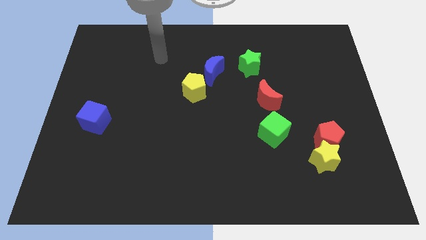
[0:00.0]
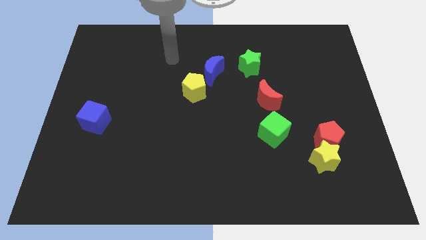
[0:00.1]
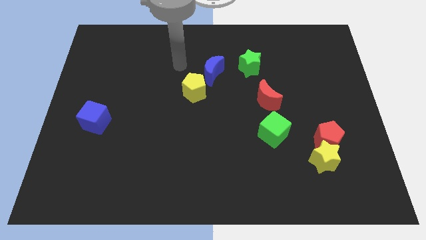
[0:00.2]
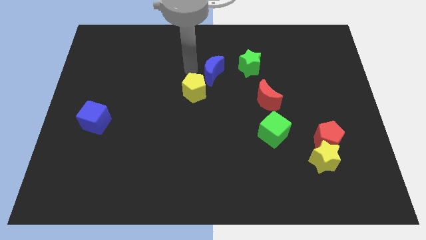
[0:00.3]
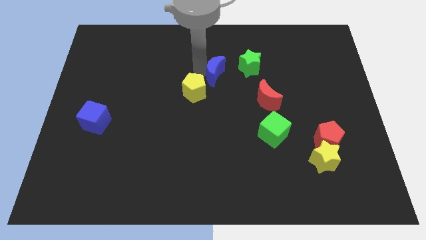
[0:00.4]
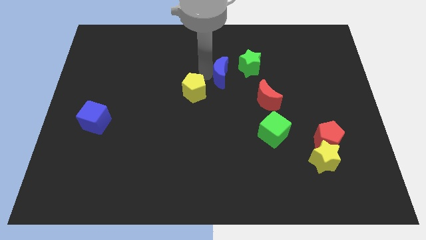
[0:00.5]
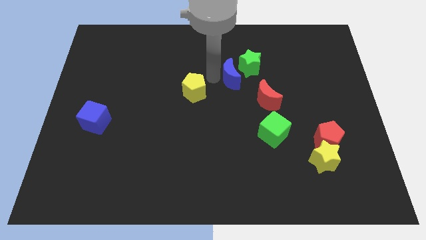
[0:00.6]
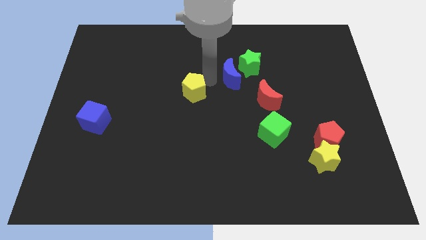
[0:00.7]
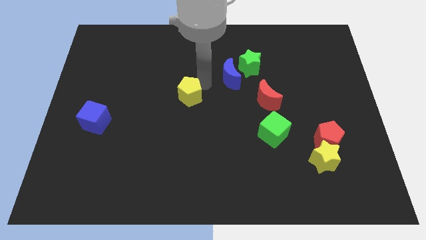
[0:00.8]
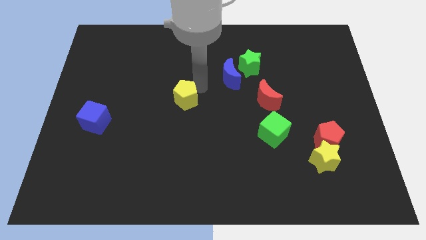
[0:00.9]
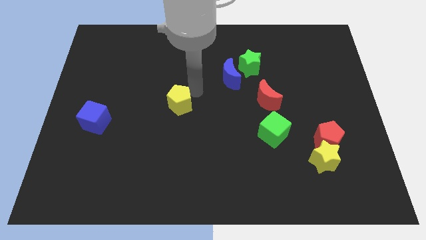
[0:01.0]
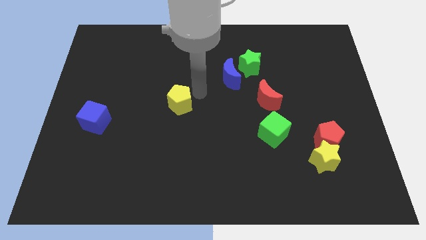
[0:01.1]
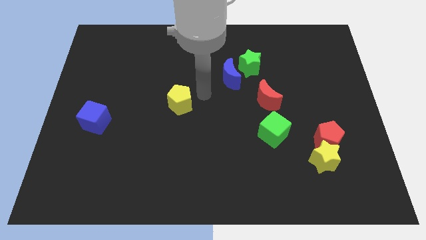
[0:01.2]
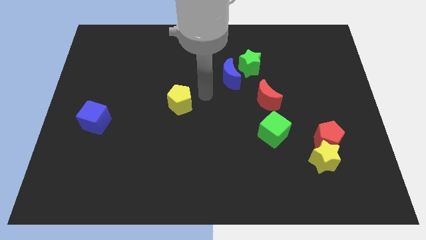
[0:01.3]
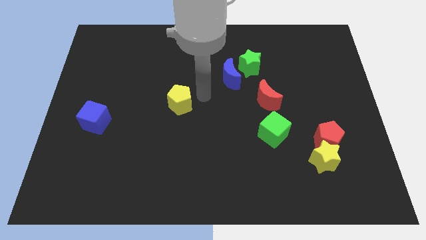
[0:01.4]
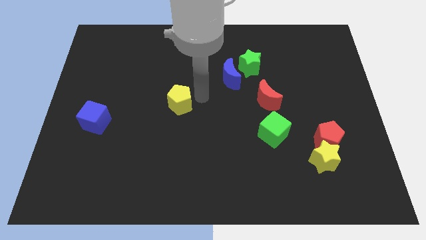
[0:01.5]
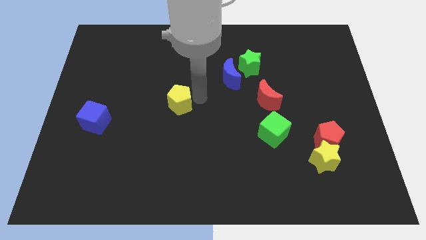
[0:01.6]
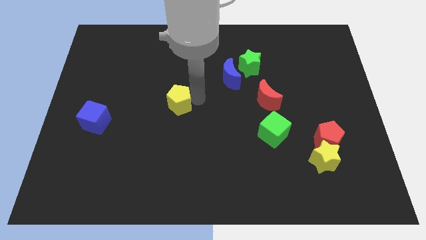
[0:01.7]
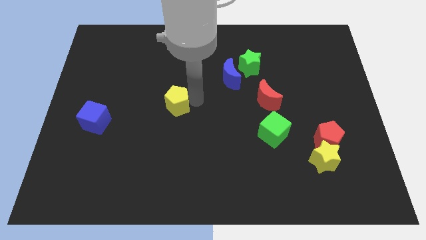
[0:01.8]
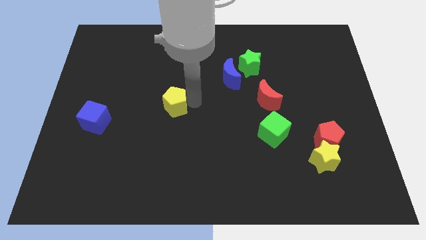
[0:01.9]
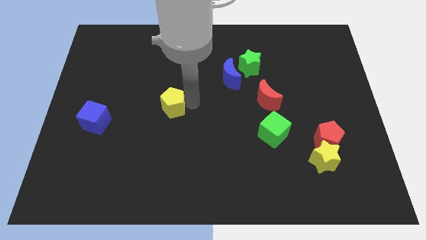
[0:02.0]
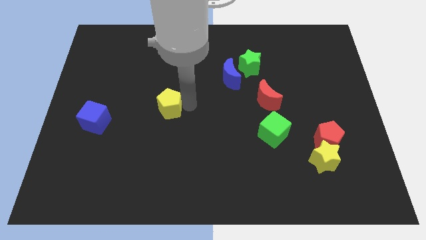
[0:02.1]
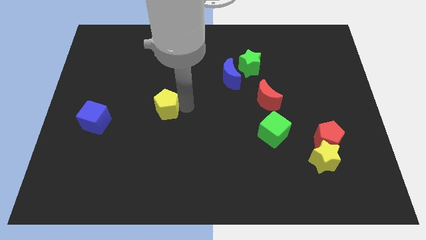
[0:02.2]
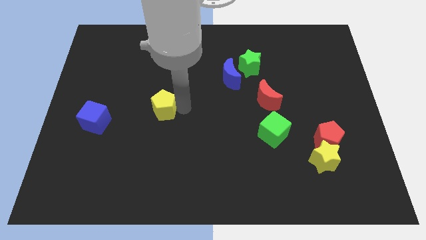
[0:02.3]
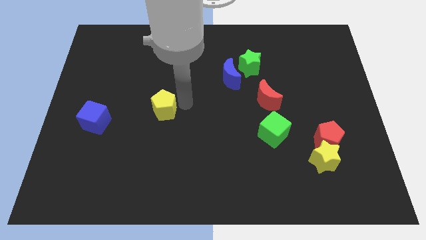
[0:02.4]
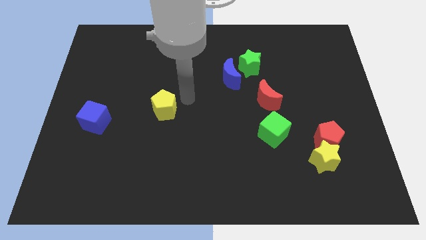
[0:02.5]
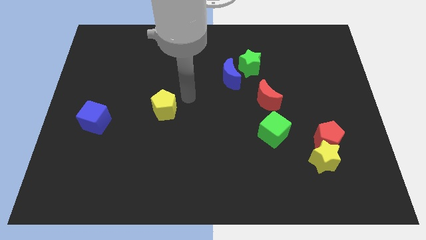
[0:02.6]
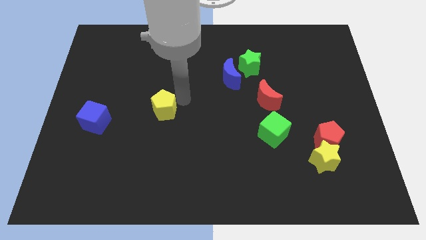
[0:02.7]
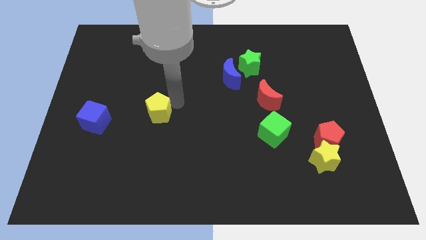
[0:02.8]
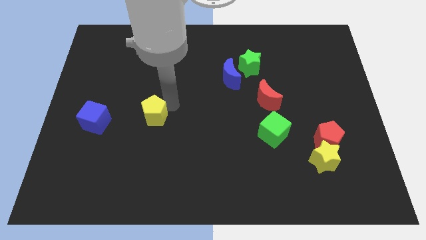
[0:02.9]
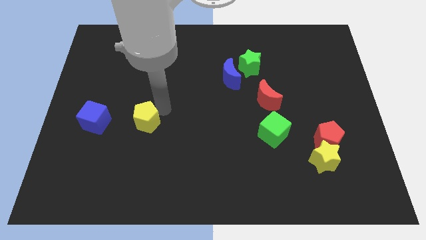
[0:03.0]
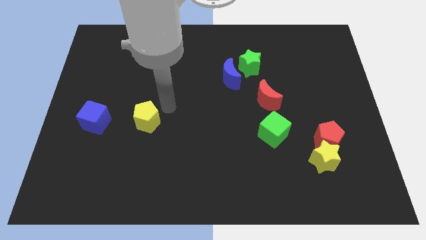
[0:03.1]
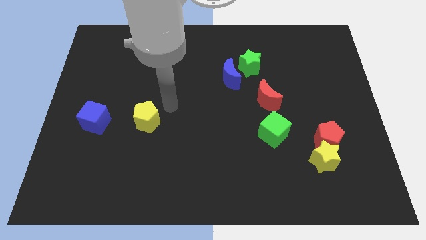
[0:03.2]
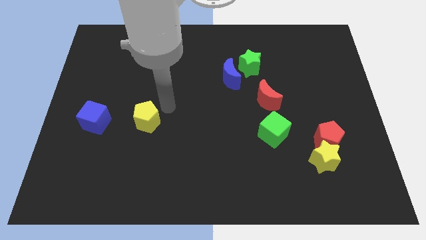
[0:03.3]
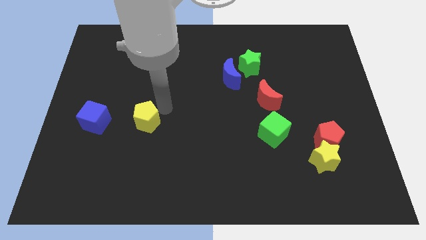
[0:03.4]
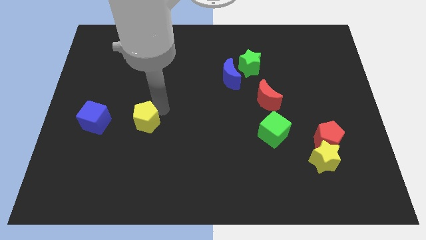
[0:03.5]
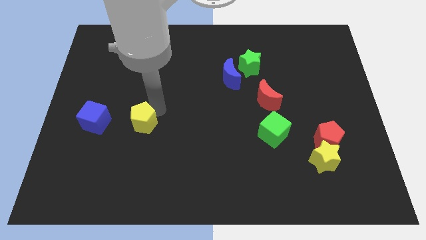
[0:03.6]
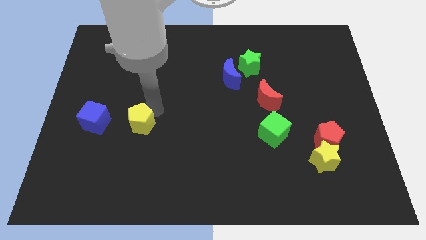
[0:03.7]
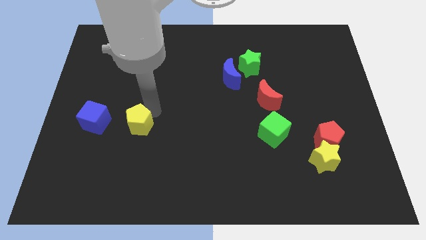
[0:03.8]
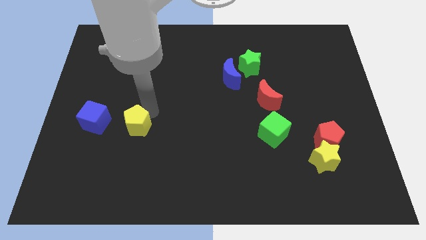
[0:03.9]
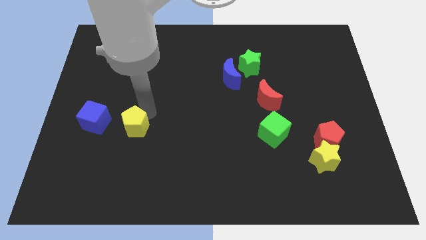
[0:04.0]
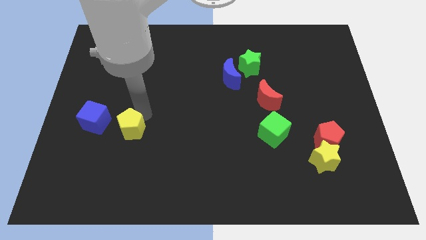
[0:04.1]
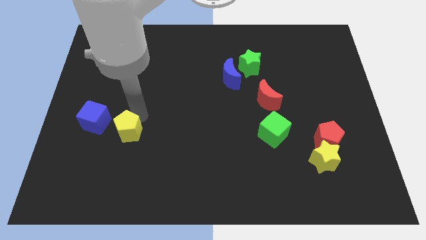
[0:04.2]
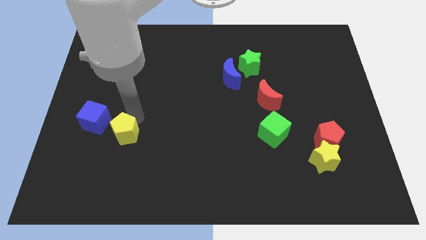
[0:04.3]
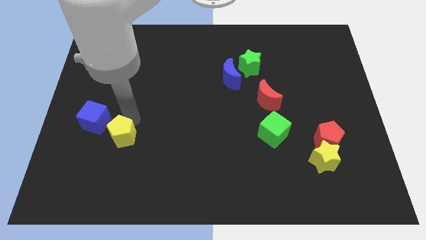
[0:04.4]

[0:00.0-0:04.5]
push the yellow pentagon downwards and to the left diagonally

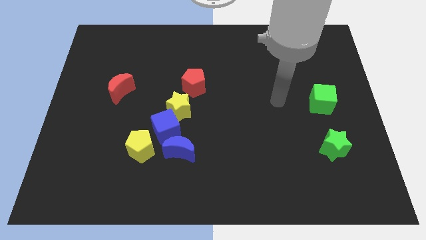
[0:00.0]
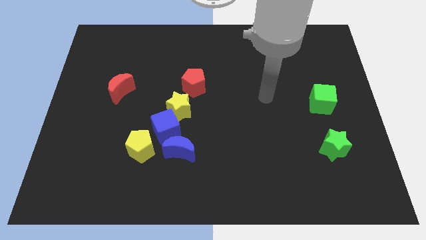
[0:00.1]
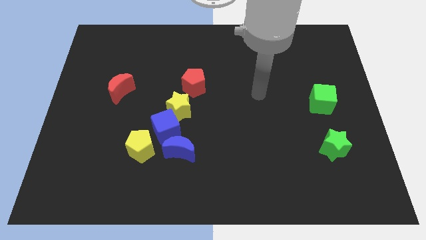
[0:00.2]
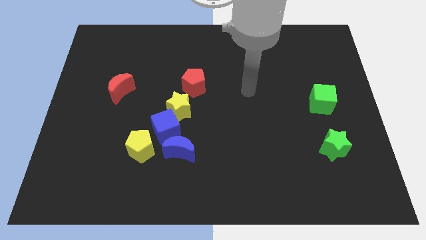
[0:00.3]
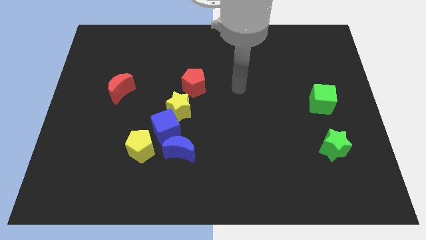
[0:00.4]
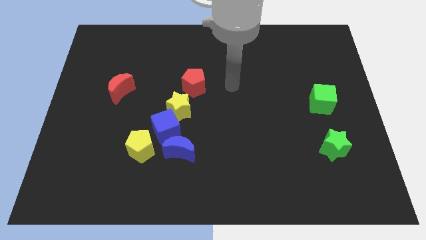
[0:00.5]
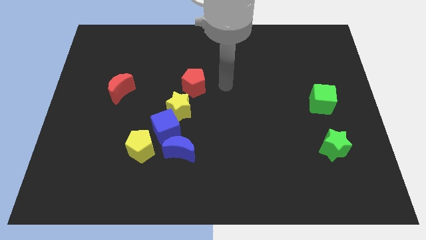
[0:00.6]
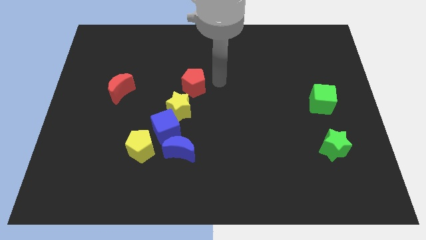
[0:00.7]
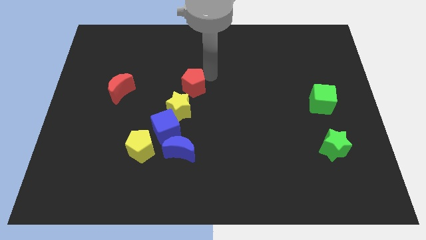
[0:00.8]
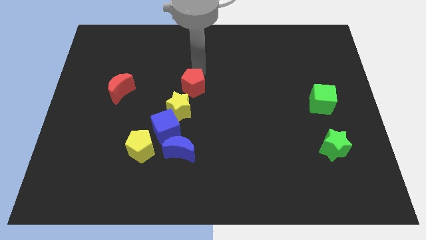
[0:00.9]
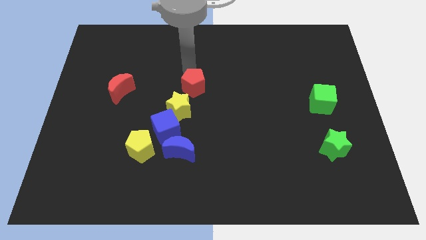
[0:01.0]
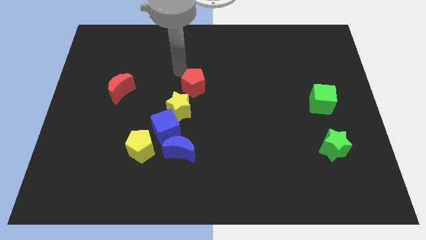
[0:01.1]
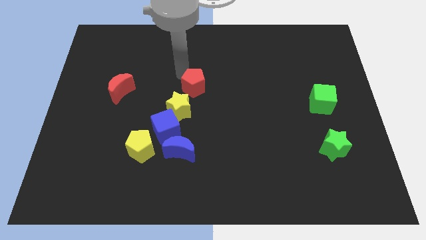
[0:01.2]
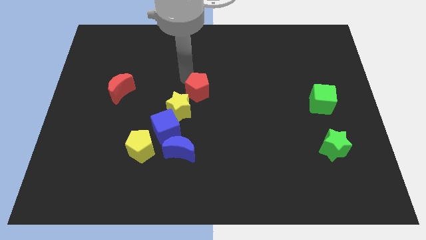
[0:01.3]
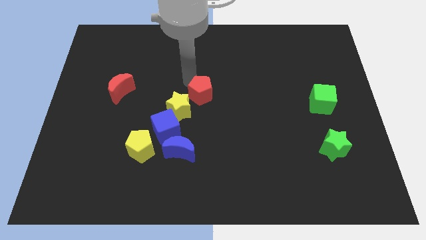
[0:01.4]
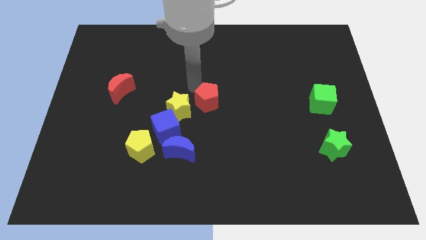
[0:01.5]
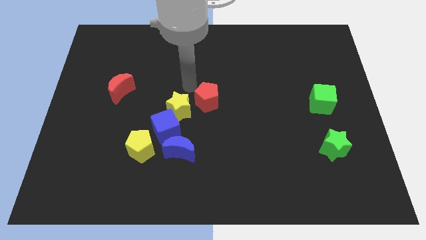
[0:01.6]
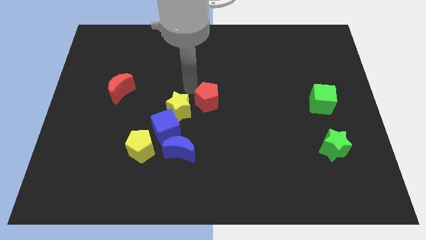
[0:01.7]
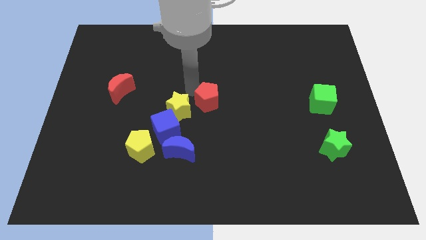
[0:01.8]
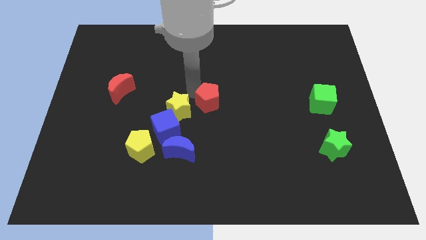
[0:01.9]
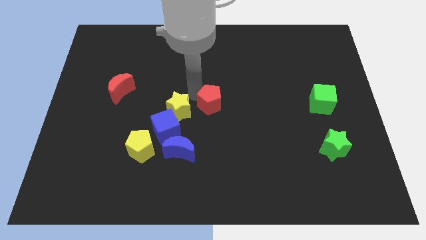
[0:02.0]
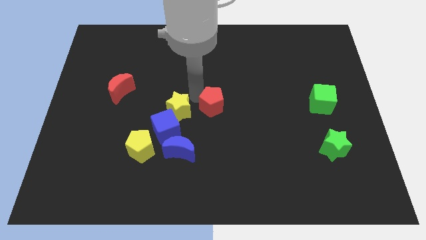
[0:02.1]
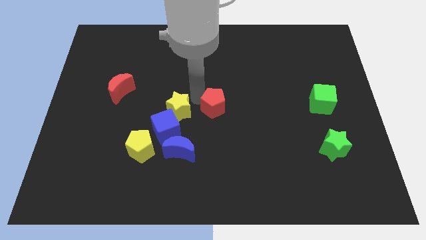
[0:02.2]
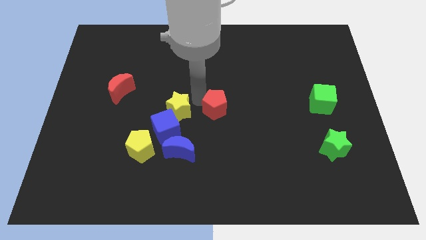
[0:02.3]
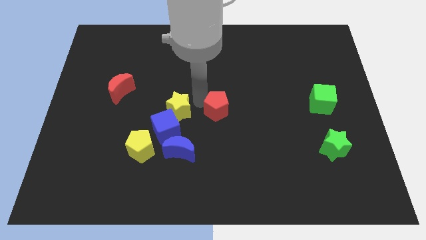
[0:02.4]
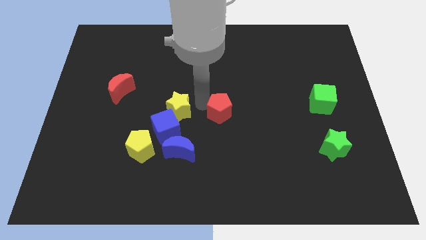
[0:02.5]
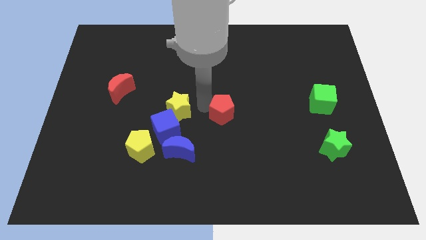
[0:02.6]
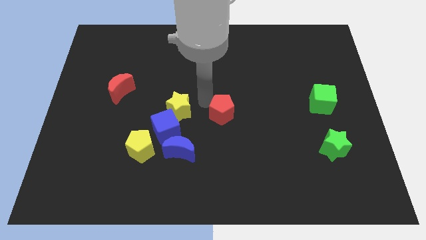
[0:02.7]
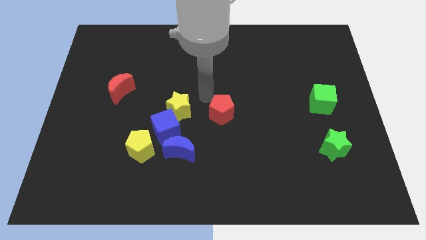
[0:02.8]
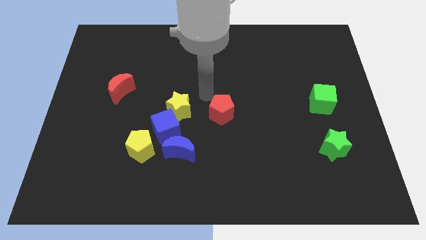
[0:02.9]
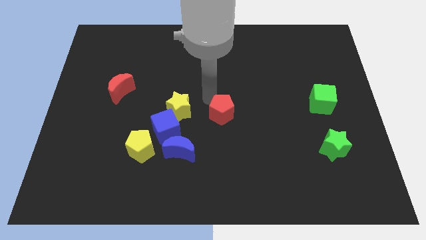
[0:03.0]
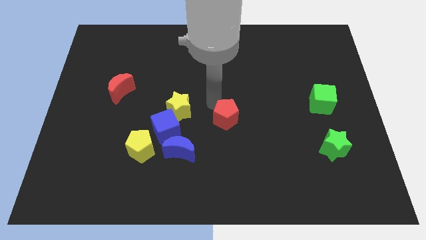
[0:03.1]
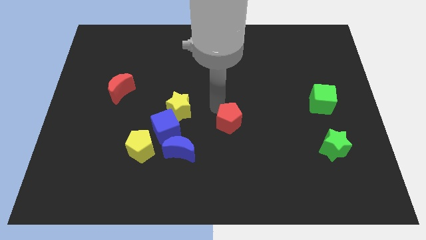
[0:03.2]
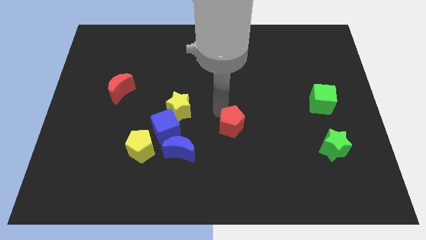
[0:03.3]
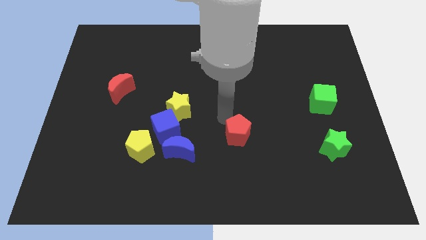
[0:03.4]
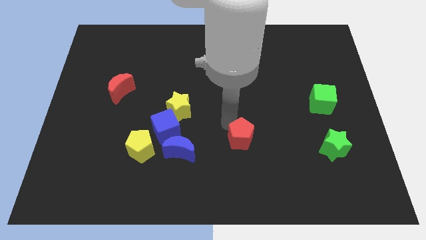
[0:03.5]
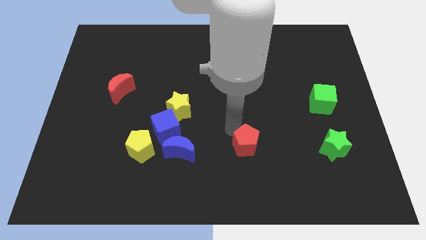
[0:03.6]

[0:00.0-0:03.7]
push the red pentagon diagonally downwards and right

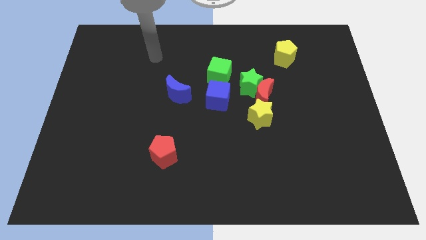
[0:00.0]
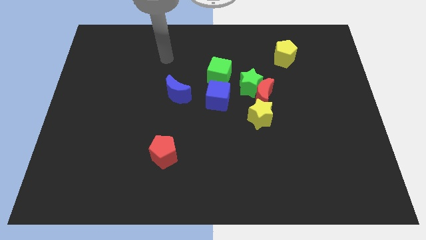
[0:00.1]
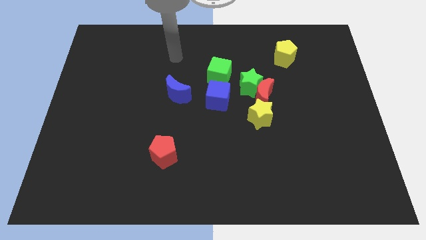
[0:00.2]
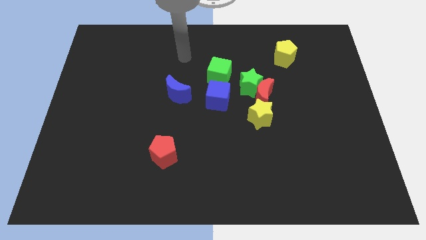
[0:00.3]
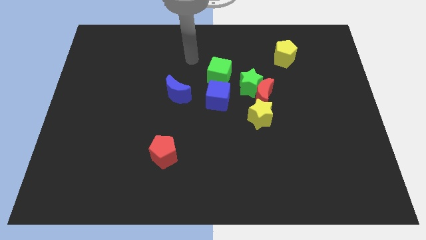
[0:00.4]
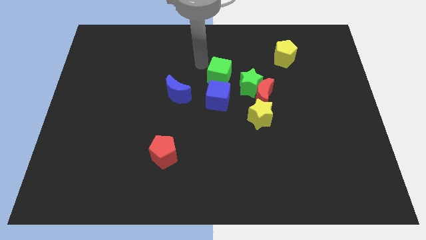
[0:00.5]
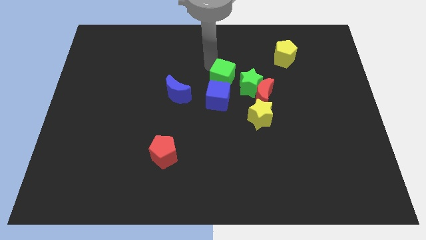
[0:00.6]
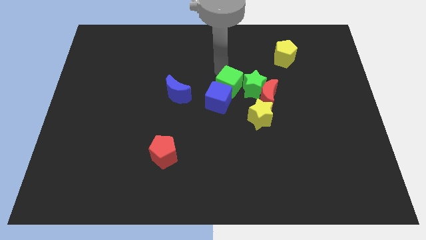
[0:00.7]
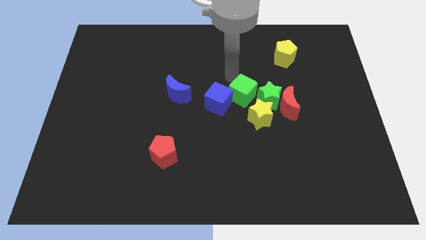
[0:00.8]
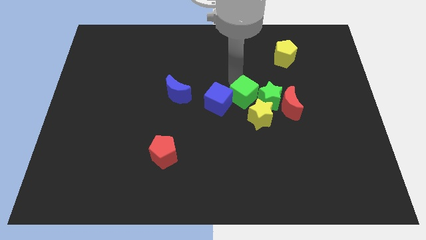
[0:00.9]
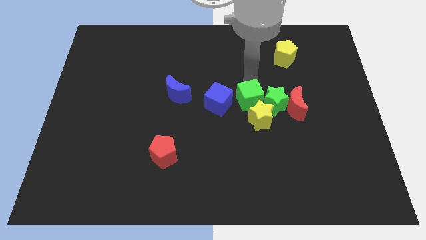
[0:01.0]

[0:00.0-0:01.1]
slightly move the red moon diagonally downwards and right
